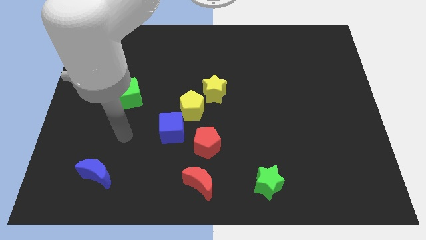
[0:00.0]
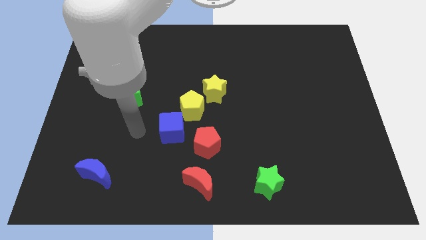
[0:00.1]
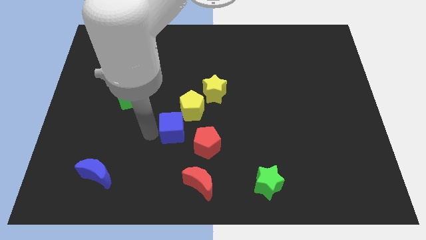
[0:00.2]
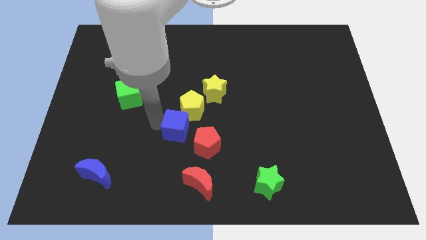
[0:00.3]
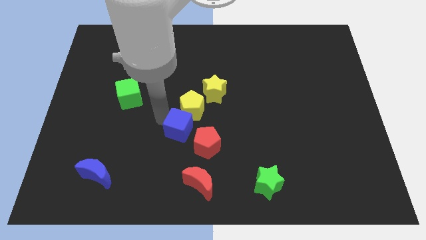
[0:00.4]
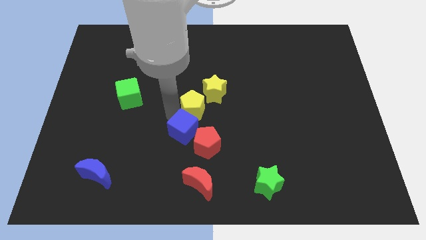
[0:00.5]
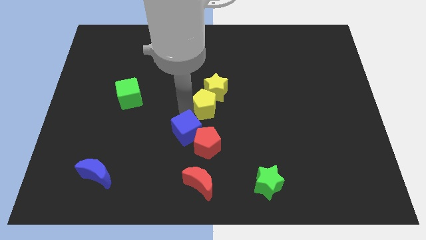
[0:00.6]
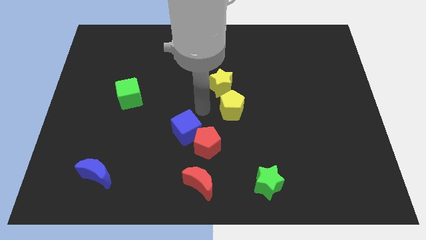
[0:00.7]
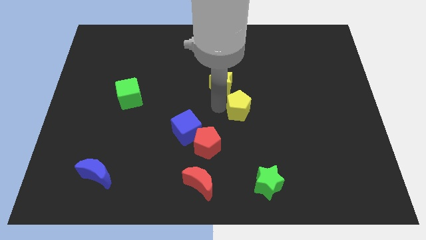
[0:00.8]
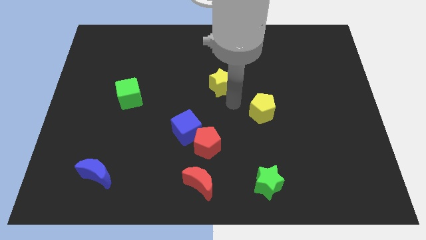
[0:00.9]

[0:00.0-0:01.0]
pull the yellow star apart from the yellow pentagon

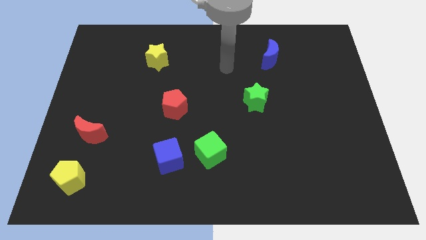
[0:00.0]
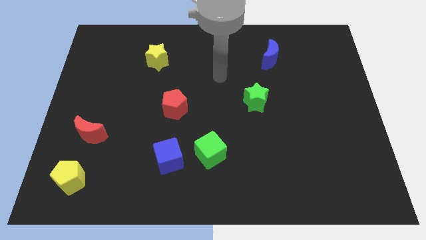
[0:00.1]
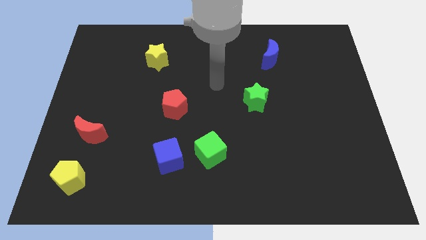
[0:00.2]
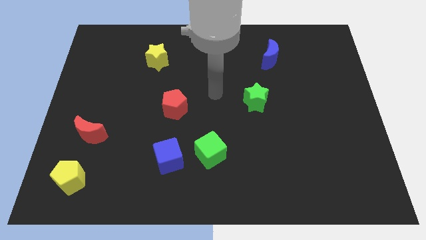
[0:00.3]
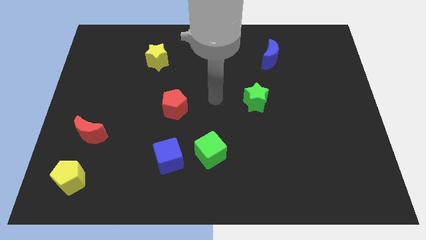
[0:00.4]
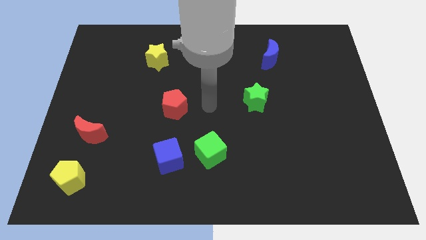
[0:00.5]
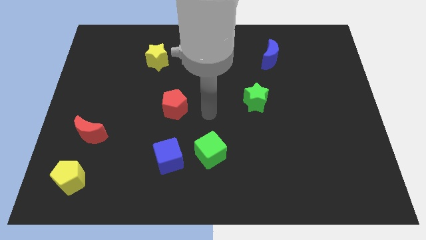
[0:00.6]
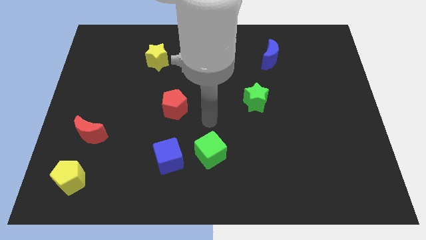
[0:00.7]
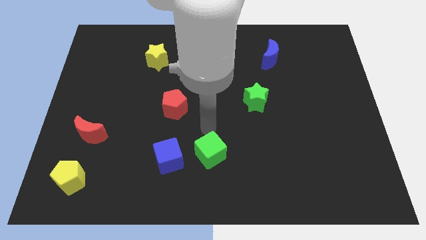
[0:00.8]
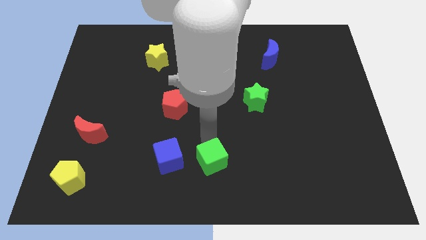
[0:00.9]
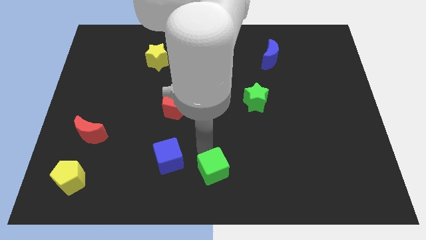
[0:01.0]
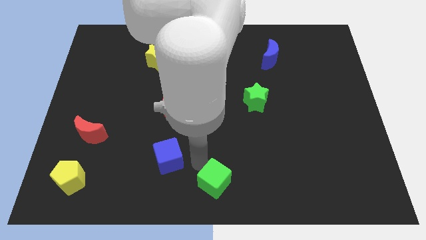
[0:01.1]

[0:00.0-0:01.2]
separate the blue cube from the green cube

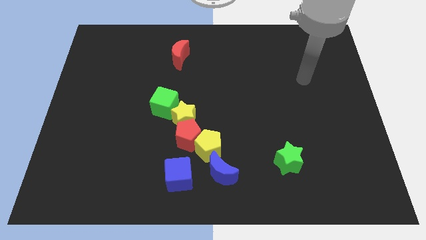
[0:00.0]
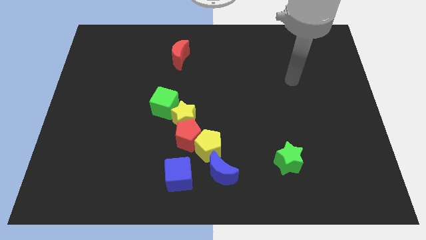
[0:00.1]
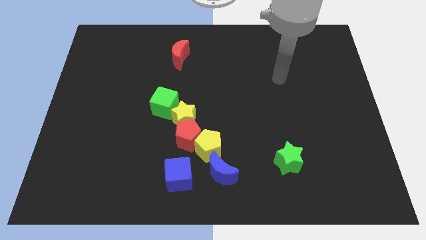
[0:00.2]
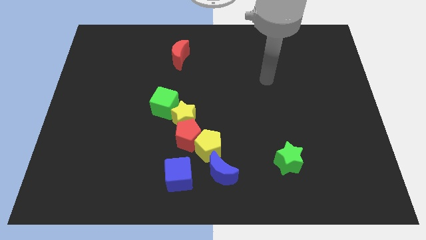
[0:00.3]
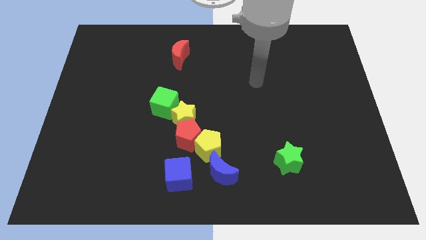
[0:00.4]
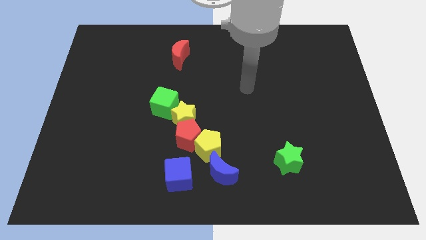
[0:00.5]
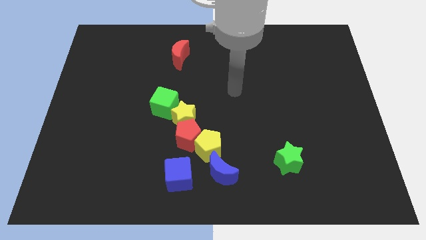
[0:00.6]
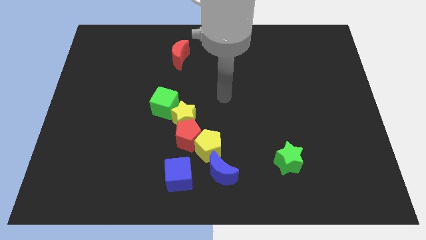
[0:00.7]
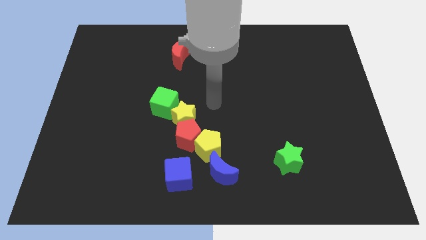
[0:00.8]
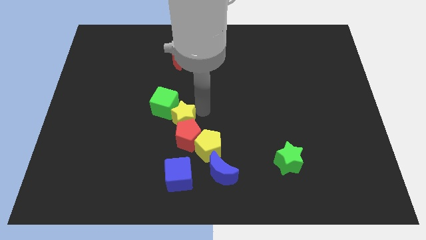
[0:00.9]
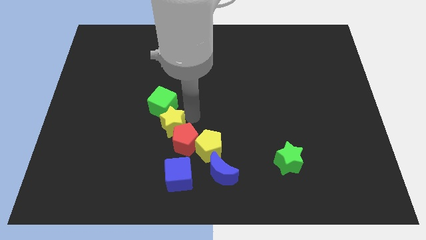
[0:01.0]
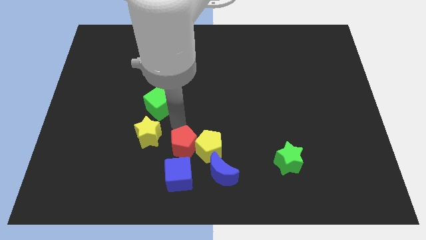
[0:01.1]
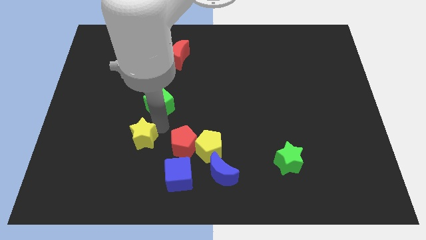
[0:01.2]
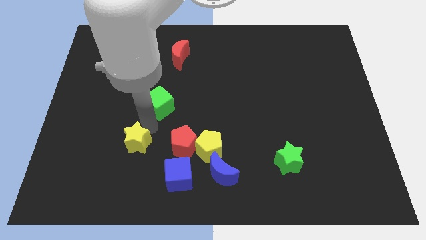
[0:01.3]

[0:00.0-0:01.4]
move the green cube away from the yellow star

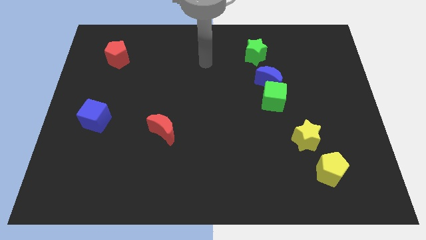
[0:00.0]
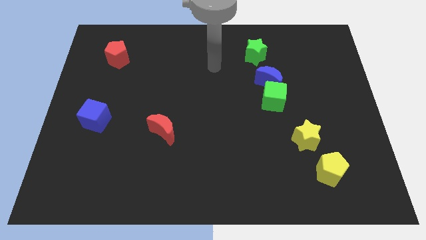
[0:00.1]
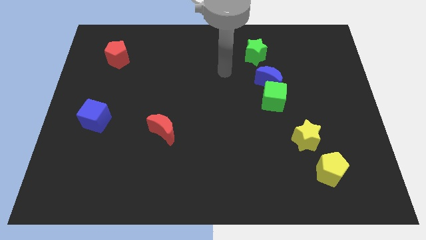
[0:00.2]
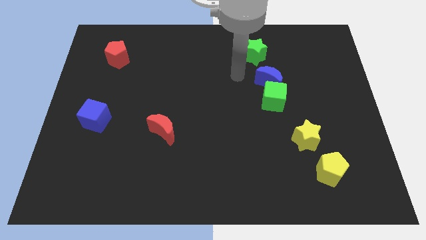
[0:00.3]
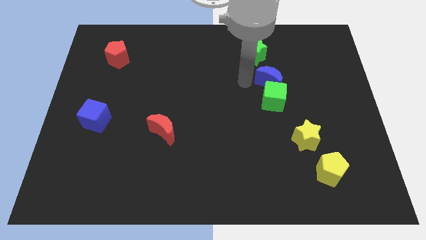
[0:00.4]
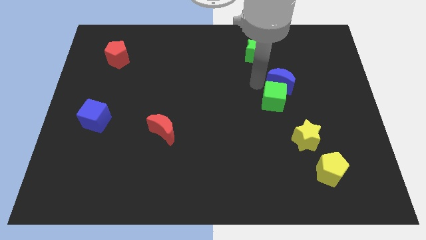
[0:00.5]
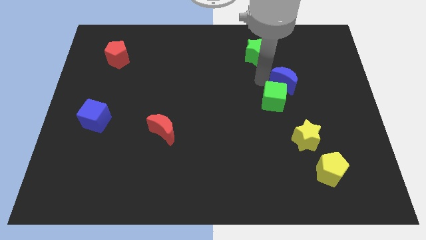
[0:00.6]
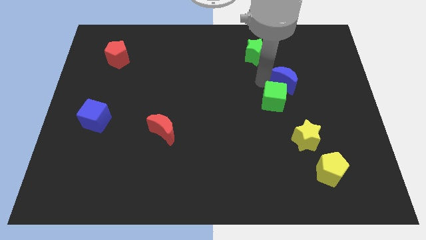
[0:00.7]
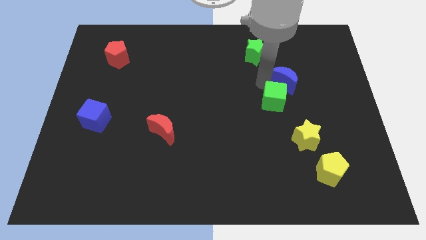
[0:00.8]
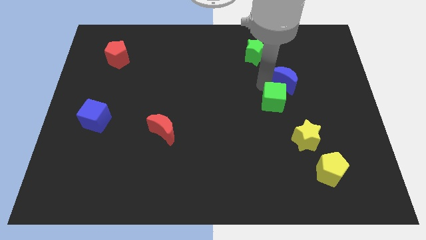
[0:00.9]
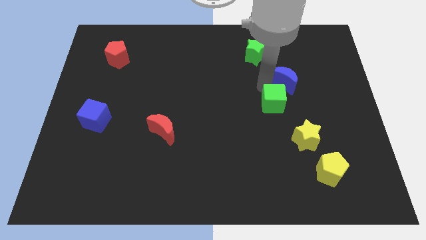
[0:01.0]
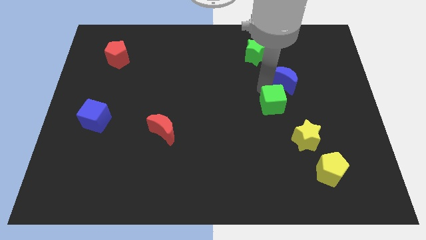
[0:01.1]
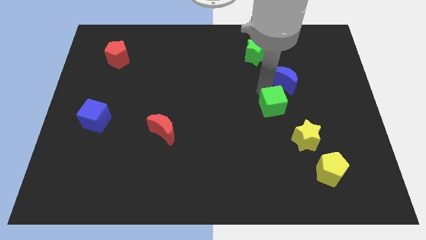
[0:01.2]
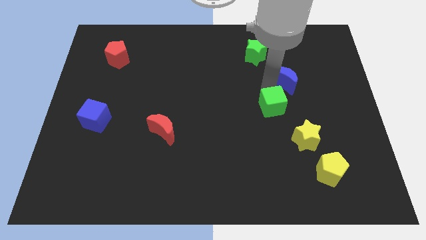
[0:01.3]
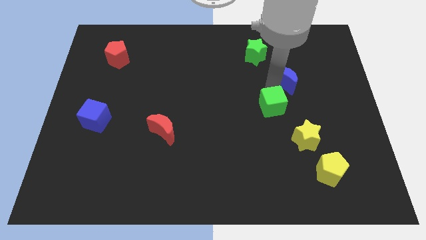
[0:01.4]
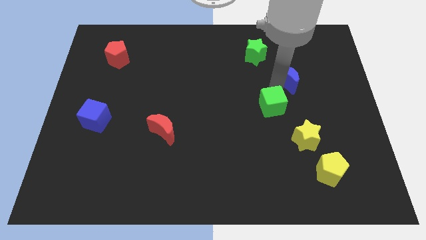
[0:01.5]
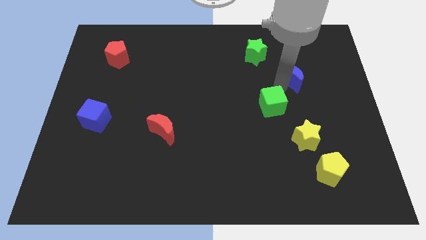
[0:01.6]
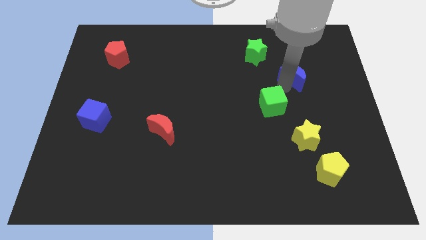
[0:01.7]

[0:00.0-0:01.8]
separate the green cube from the blue moon

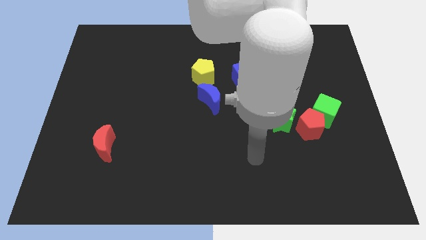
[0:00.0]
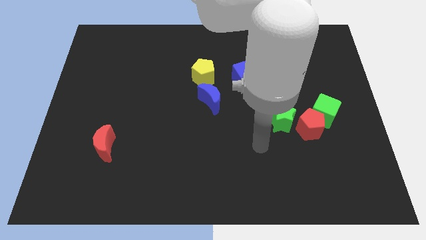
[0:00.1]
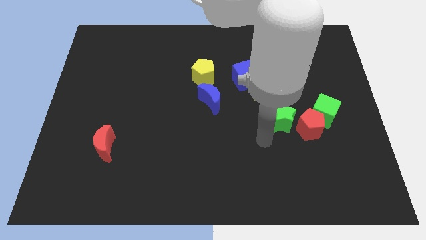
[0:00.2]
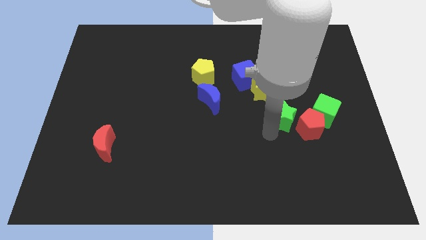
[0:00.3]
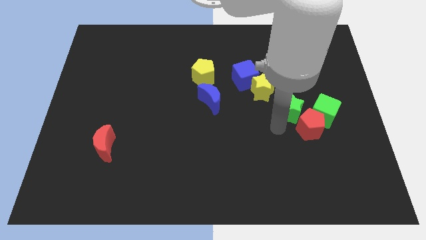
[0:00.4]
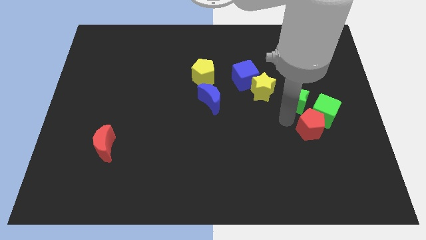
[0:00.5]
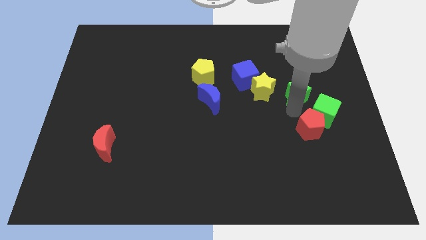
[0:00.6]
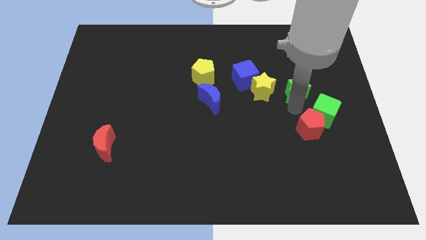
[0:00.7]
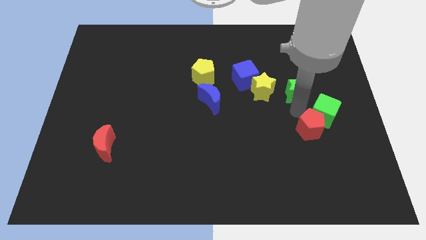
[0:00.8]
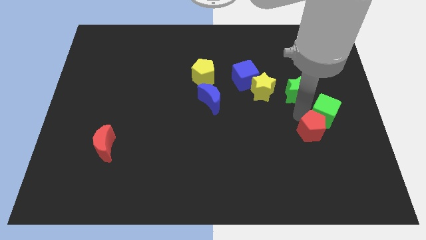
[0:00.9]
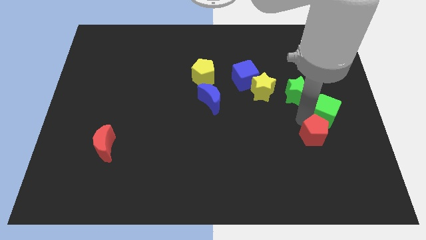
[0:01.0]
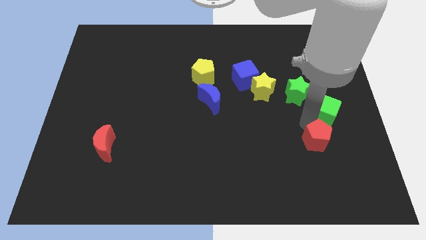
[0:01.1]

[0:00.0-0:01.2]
pull the red pentagon apart from the green cube and green star

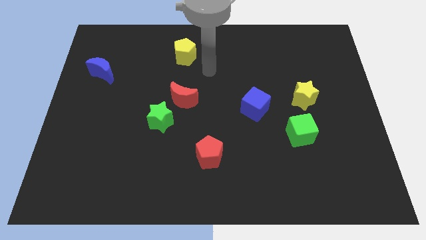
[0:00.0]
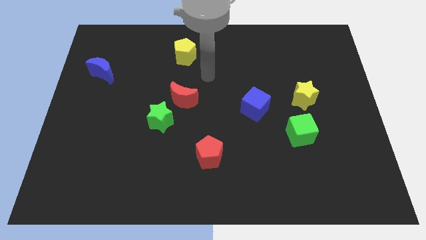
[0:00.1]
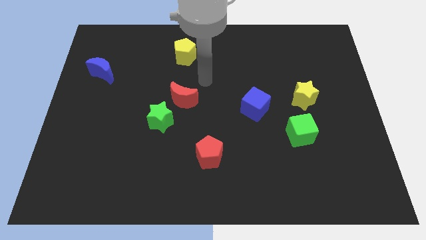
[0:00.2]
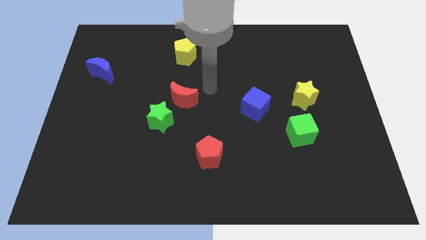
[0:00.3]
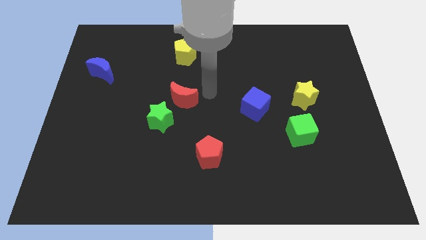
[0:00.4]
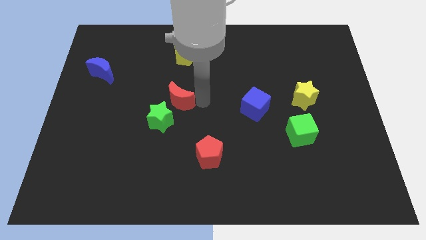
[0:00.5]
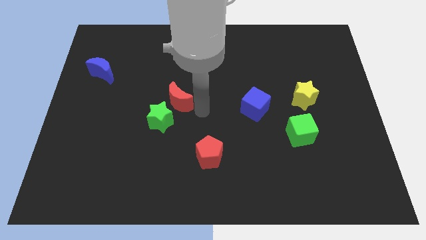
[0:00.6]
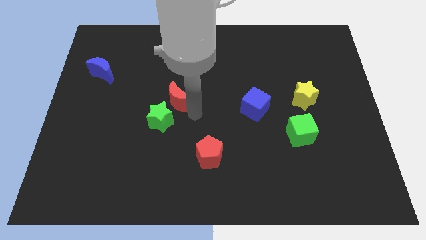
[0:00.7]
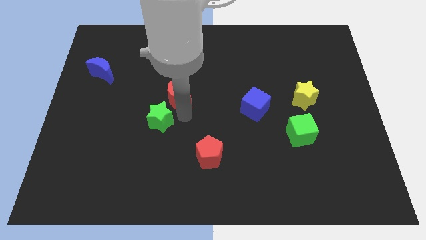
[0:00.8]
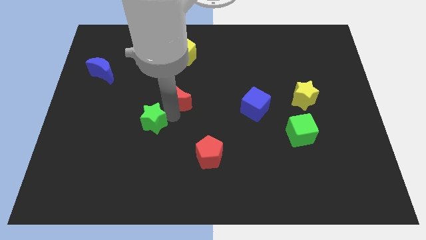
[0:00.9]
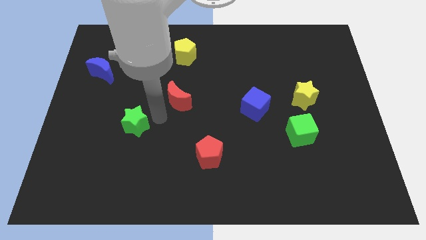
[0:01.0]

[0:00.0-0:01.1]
move the red moon away from the green star

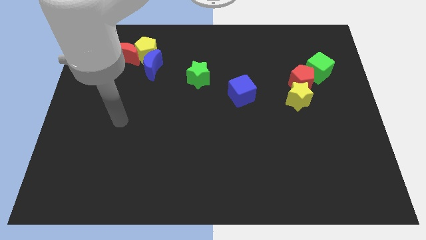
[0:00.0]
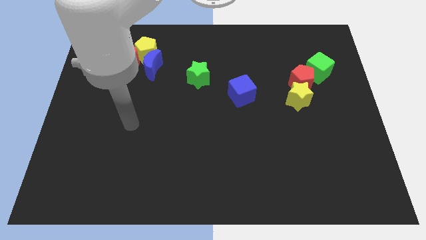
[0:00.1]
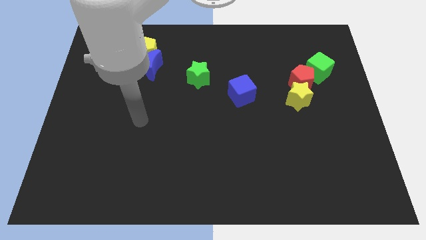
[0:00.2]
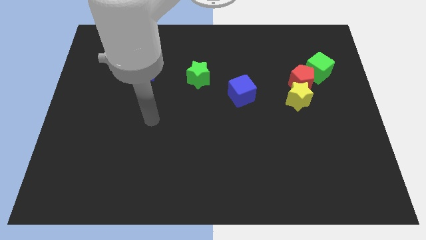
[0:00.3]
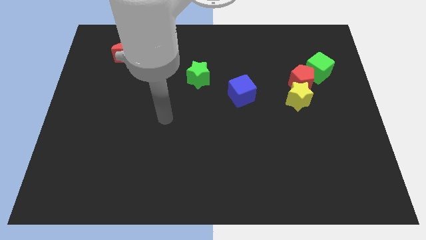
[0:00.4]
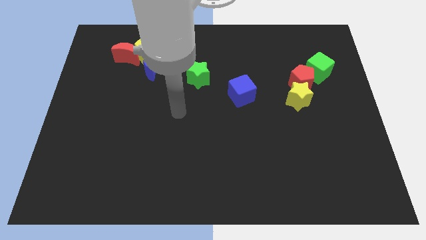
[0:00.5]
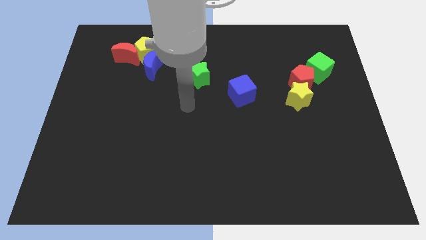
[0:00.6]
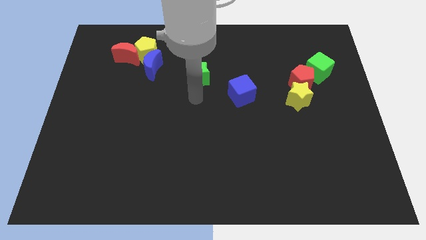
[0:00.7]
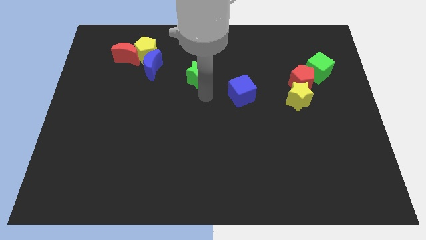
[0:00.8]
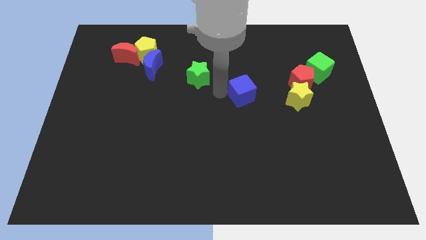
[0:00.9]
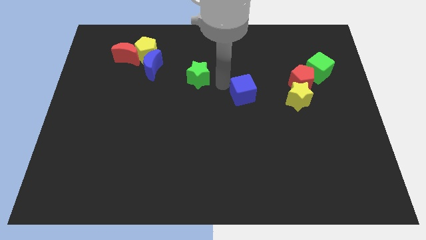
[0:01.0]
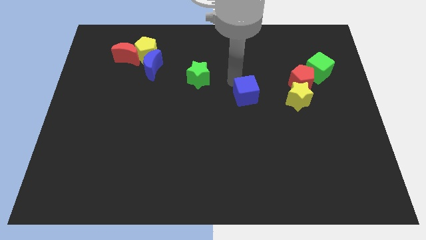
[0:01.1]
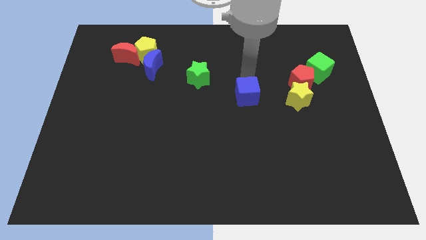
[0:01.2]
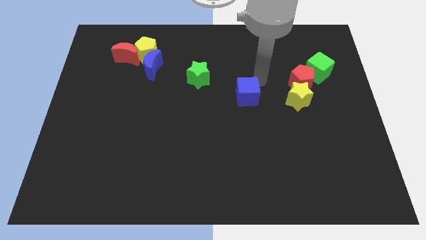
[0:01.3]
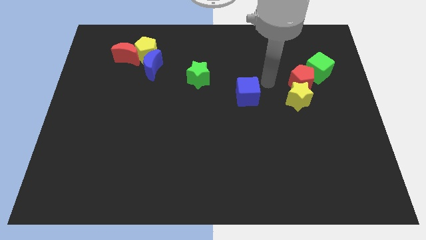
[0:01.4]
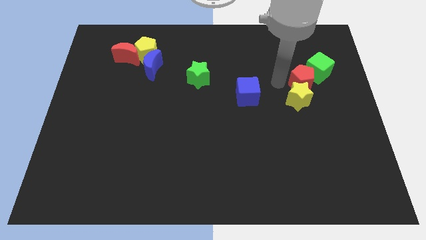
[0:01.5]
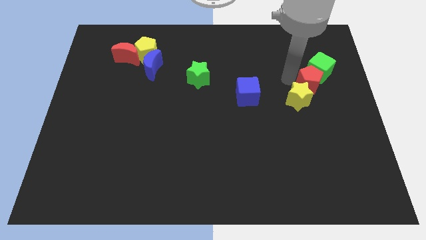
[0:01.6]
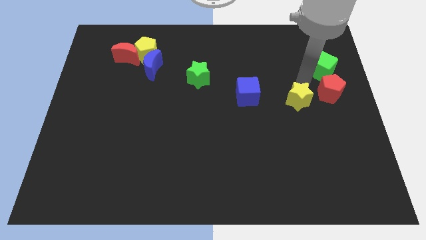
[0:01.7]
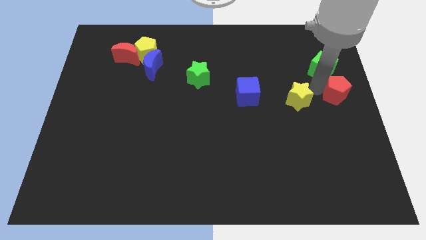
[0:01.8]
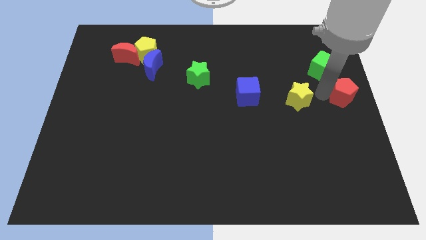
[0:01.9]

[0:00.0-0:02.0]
move the yellow star away from the red pentagon
